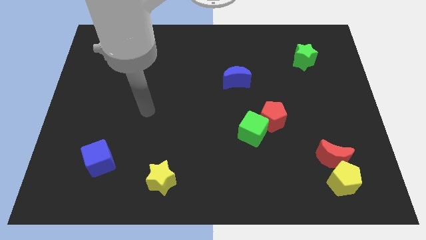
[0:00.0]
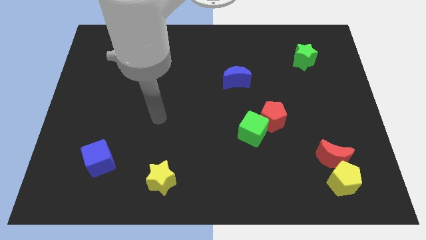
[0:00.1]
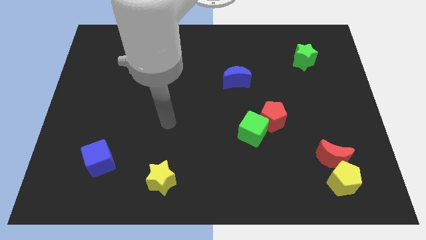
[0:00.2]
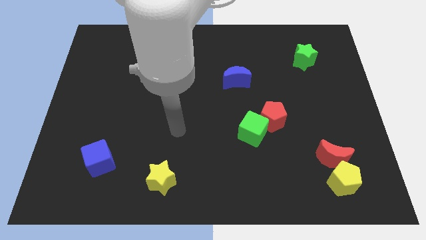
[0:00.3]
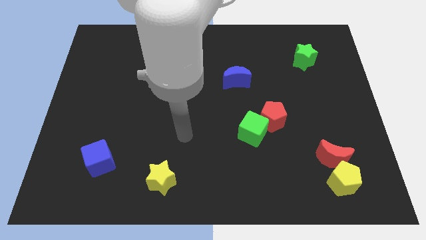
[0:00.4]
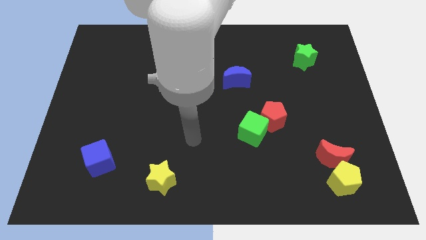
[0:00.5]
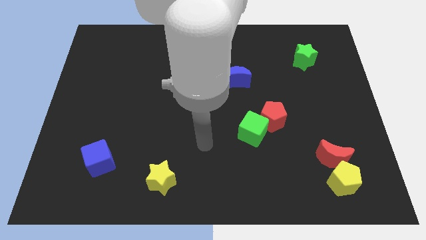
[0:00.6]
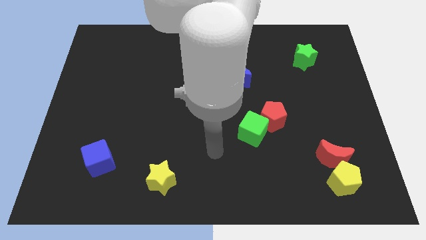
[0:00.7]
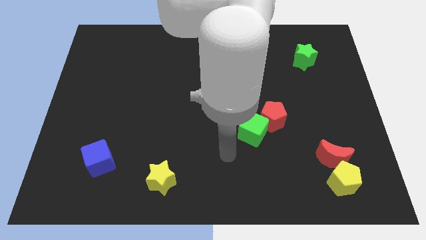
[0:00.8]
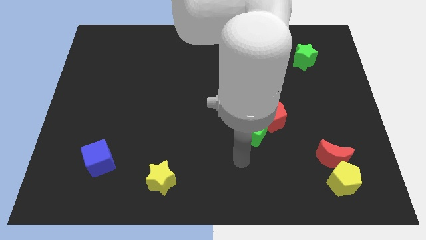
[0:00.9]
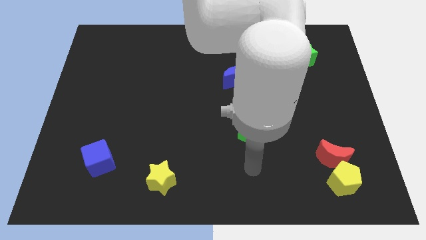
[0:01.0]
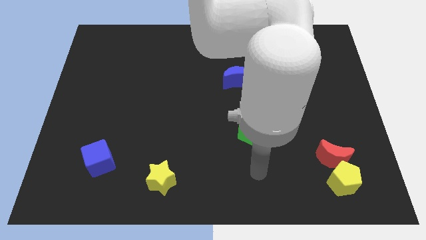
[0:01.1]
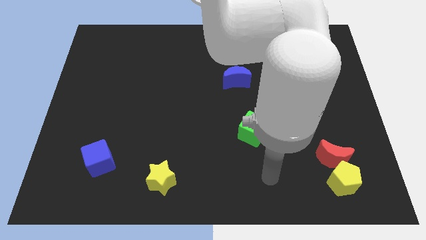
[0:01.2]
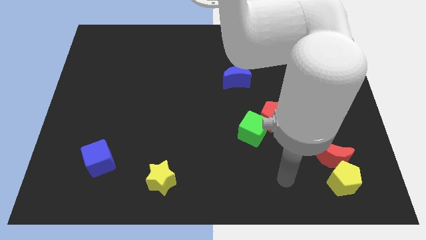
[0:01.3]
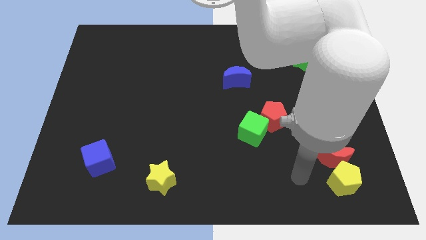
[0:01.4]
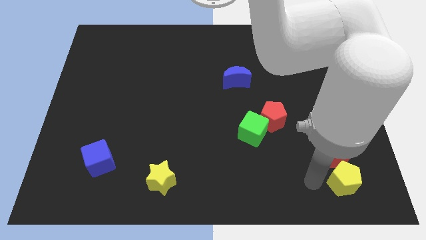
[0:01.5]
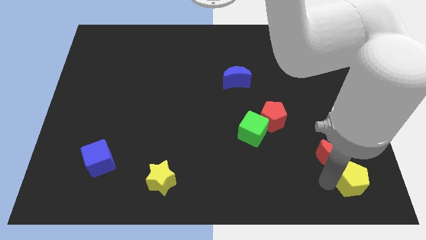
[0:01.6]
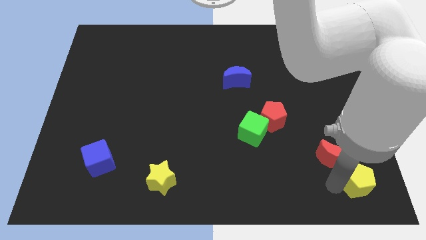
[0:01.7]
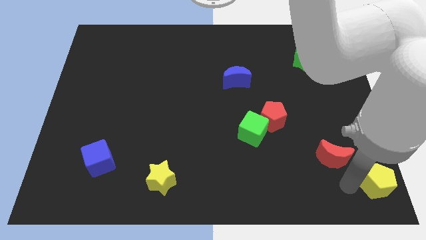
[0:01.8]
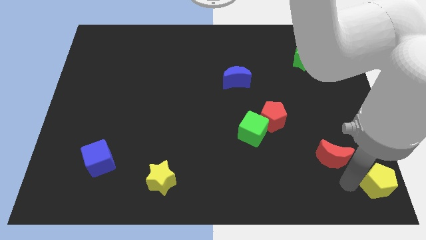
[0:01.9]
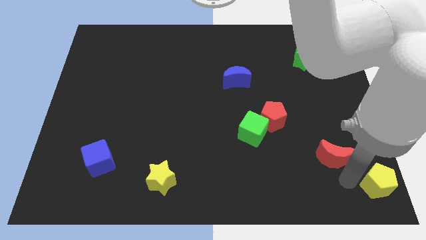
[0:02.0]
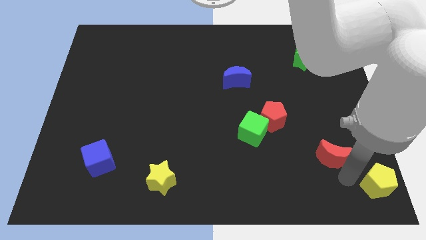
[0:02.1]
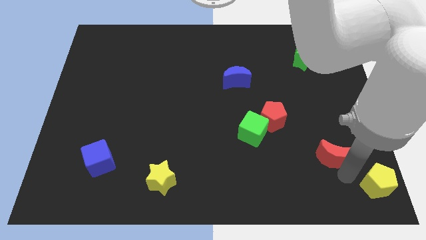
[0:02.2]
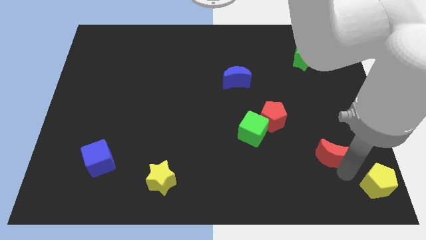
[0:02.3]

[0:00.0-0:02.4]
separate the red moon from the yellow pentagon

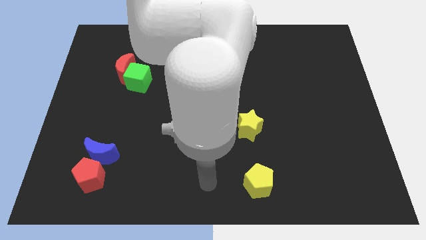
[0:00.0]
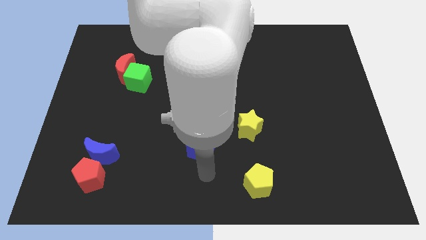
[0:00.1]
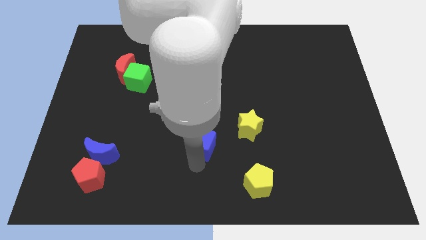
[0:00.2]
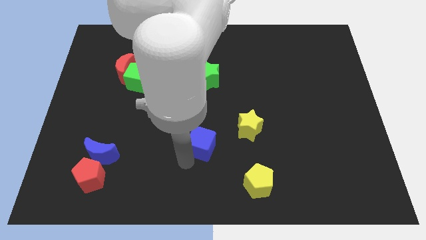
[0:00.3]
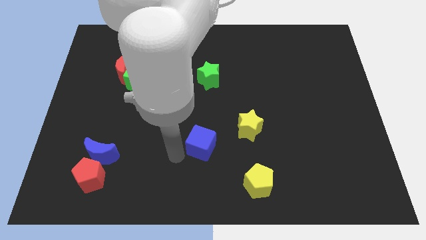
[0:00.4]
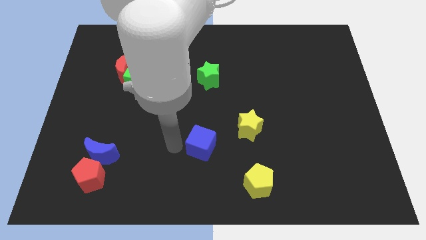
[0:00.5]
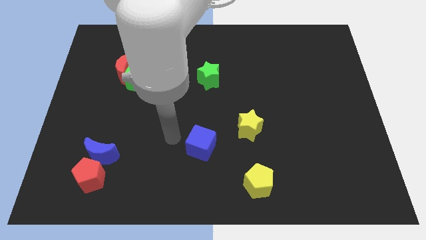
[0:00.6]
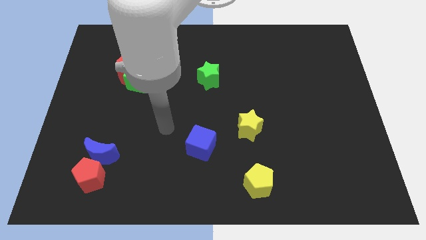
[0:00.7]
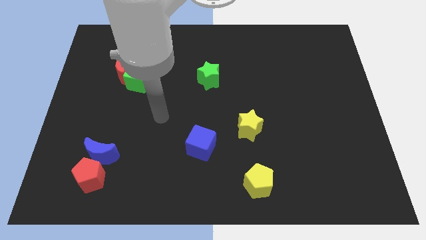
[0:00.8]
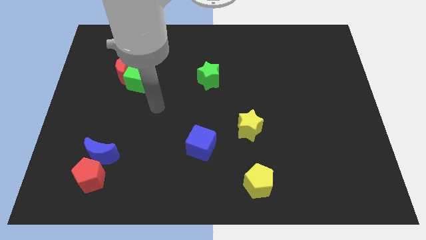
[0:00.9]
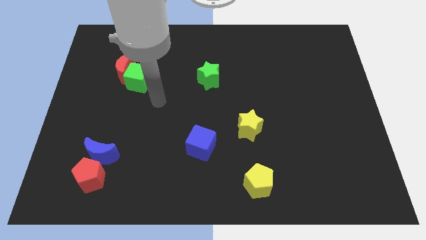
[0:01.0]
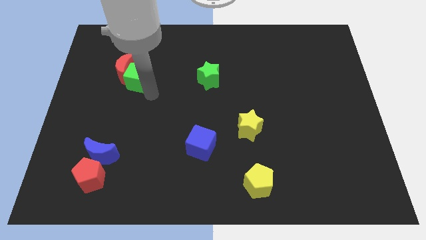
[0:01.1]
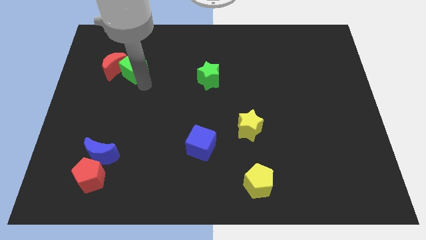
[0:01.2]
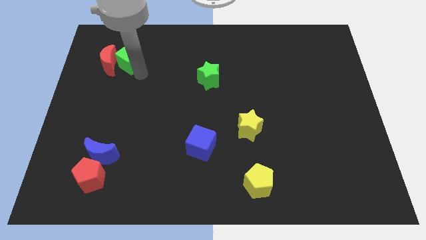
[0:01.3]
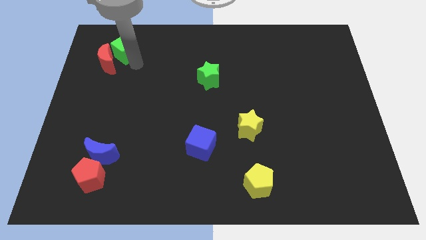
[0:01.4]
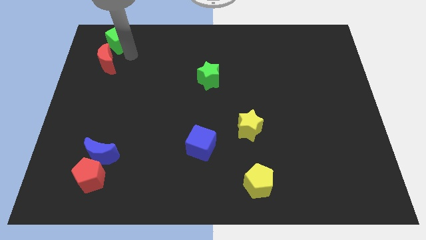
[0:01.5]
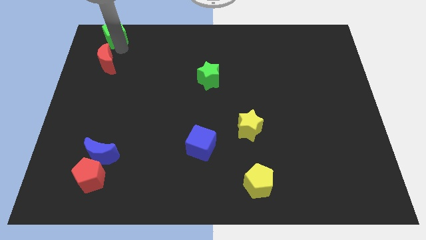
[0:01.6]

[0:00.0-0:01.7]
pull the red moon apart from the green cube

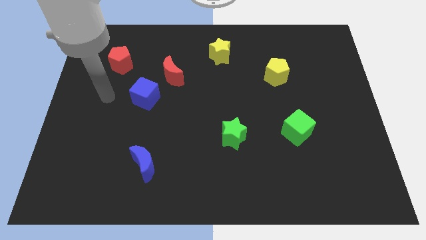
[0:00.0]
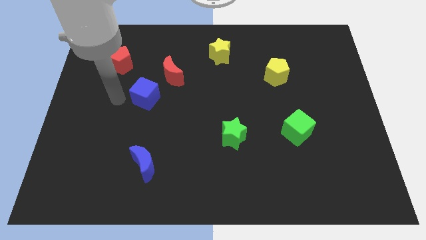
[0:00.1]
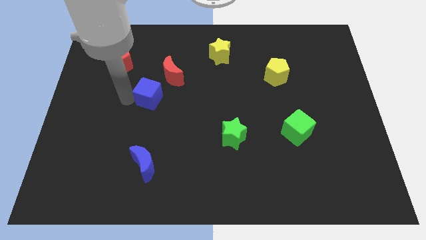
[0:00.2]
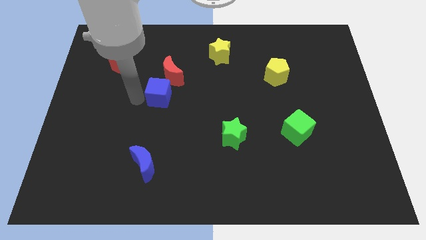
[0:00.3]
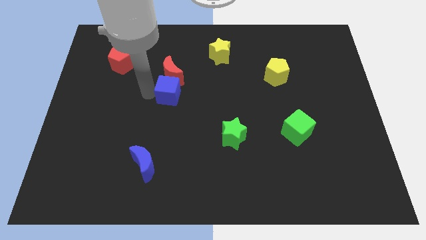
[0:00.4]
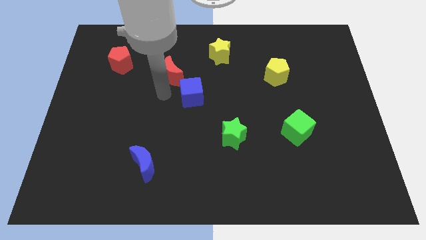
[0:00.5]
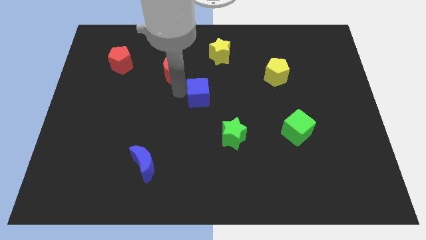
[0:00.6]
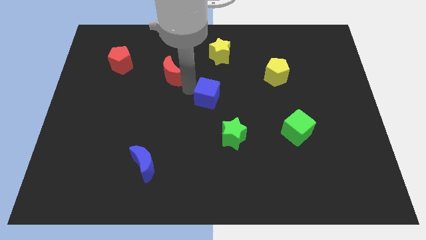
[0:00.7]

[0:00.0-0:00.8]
pull the red moon apart from the blue cube

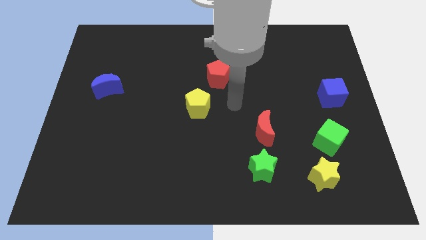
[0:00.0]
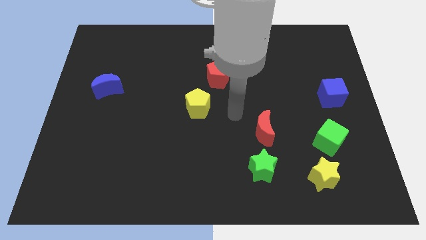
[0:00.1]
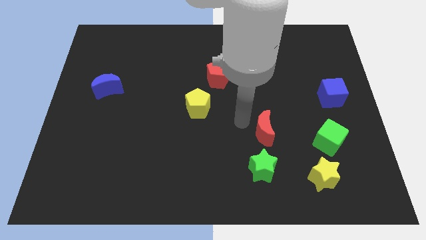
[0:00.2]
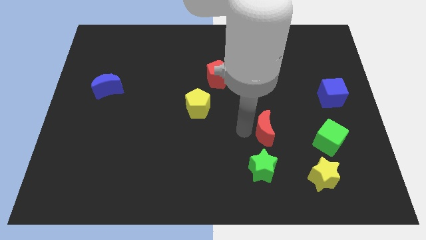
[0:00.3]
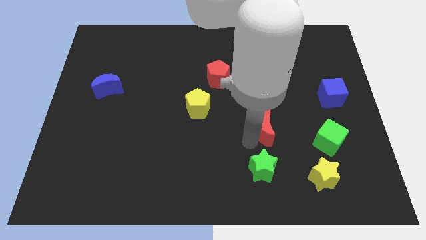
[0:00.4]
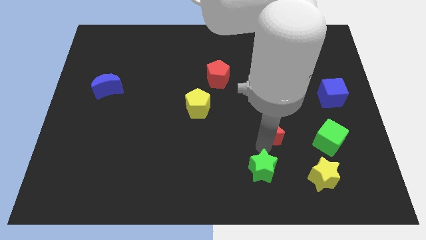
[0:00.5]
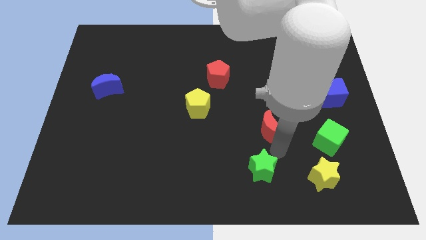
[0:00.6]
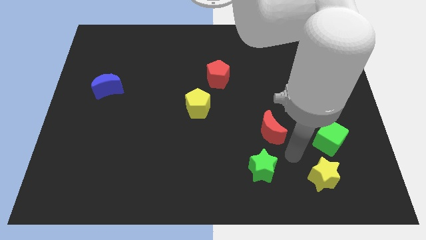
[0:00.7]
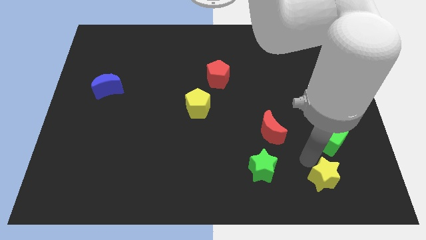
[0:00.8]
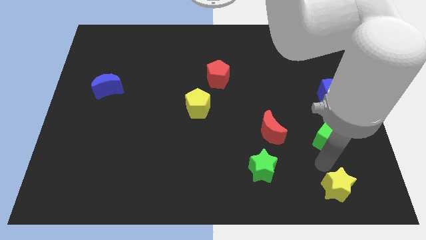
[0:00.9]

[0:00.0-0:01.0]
move the green cube away from the yellow star

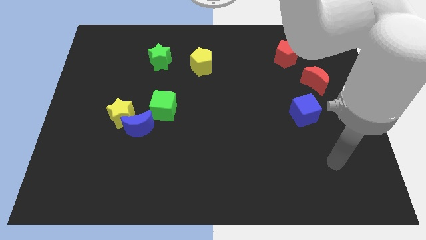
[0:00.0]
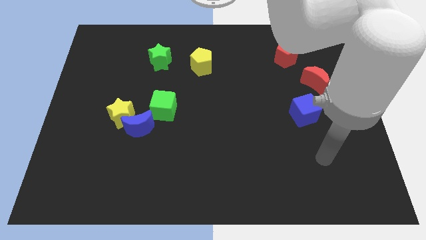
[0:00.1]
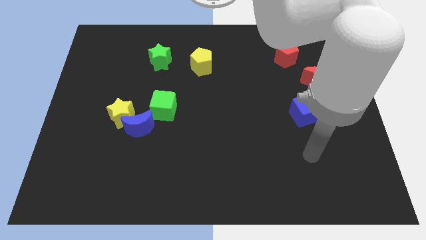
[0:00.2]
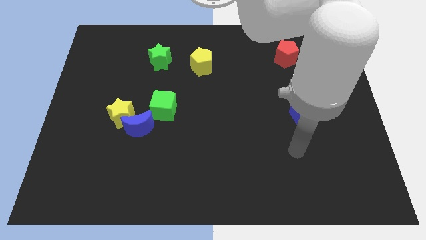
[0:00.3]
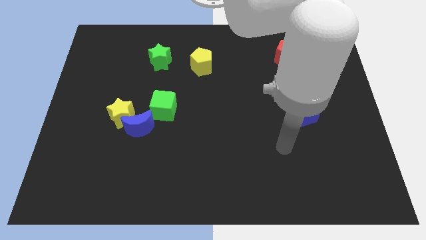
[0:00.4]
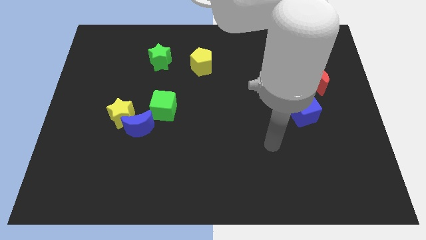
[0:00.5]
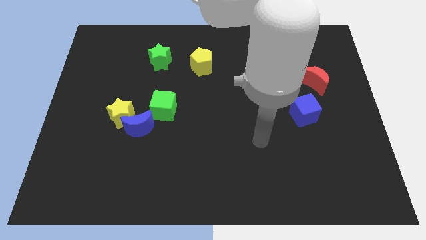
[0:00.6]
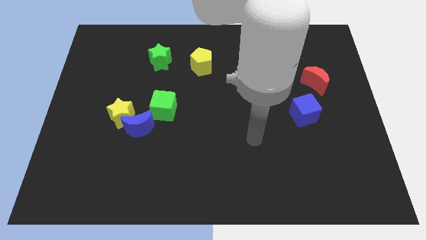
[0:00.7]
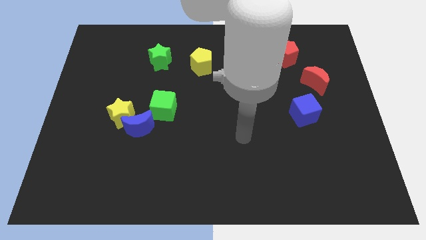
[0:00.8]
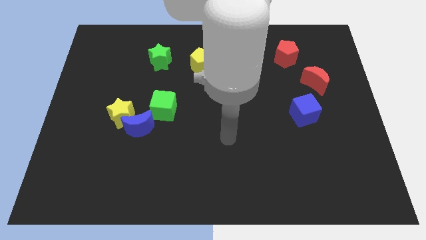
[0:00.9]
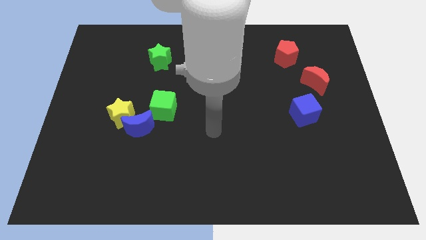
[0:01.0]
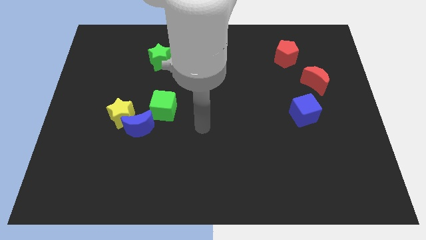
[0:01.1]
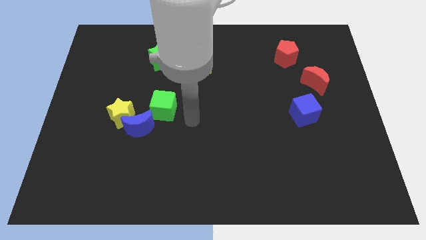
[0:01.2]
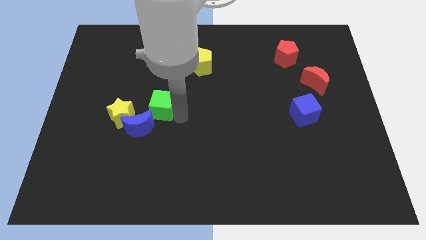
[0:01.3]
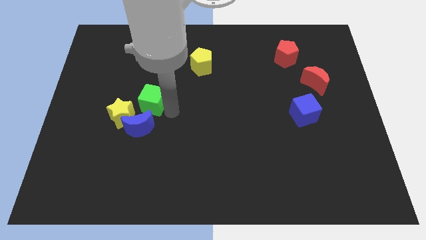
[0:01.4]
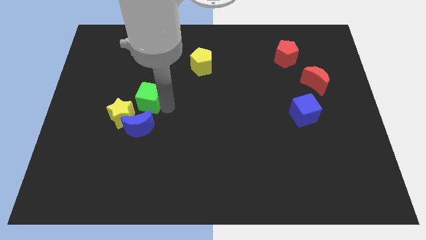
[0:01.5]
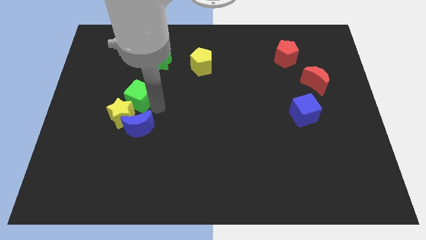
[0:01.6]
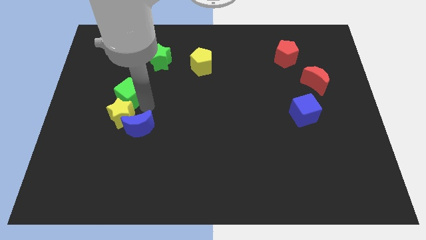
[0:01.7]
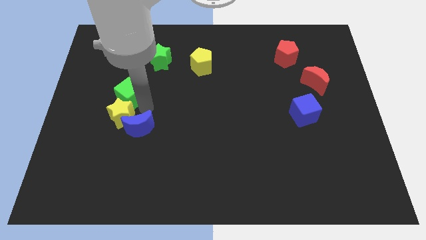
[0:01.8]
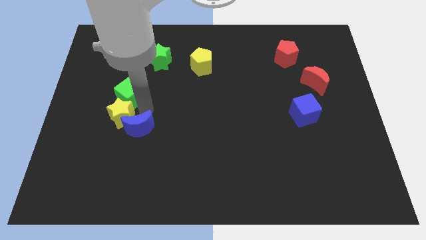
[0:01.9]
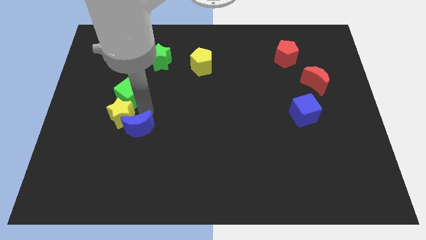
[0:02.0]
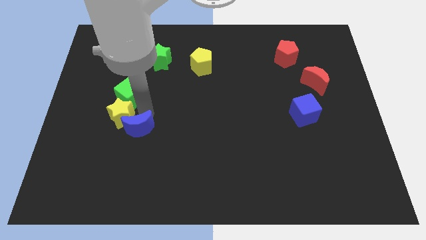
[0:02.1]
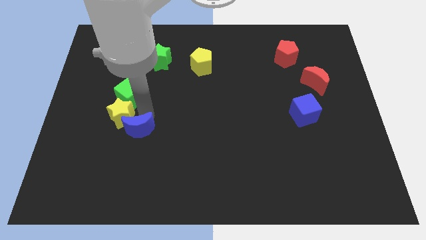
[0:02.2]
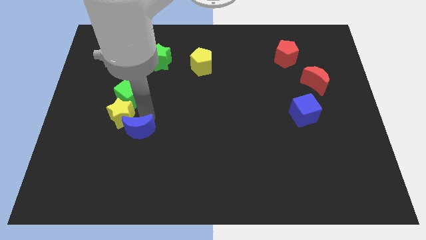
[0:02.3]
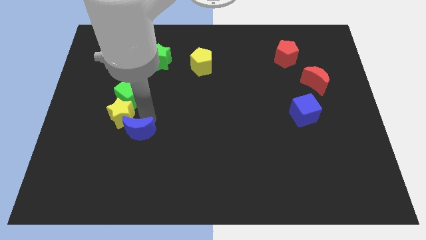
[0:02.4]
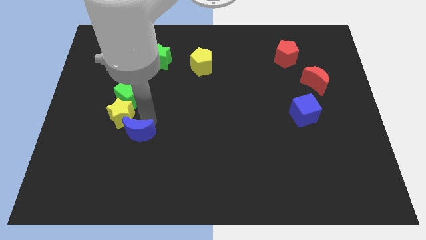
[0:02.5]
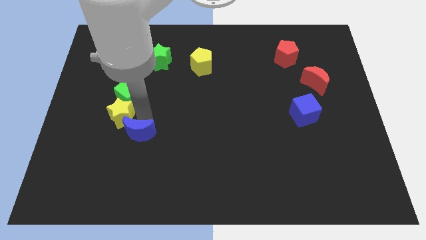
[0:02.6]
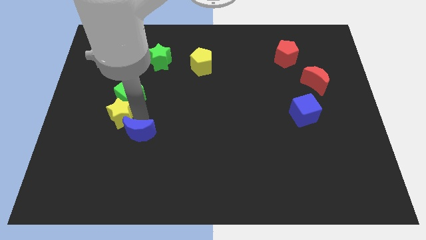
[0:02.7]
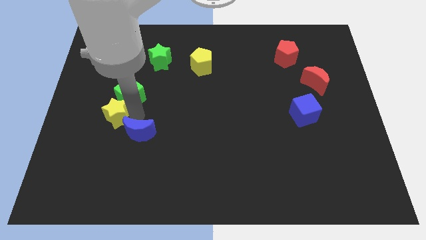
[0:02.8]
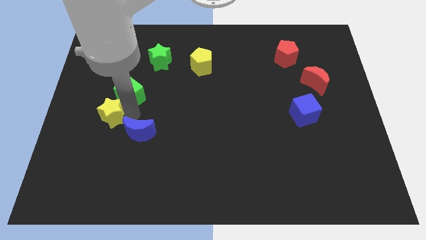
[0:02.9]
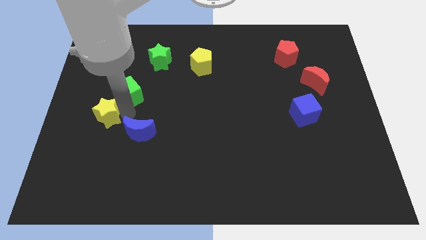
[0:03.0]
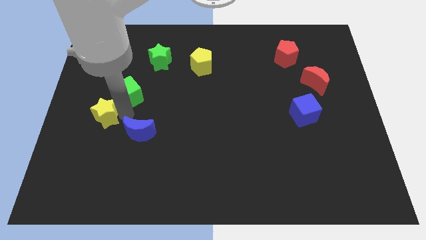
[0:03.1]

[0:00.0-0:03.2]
separate the blue moon from the yellow star and green cube
